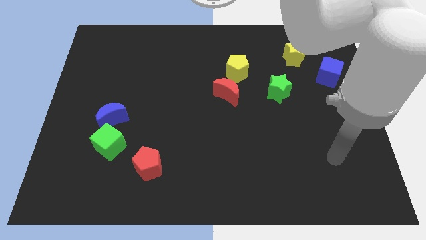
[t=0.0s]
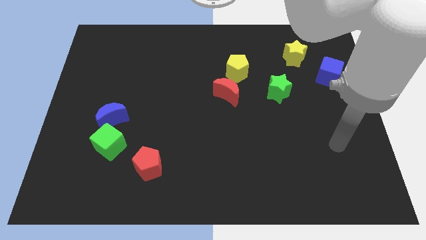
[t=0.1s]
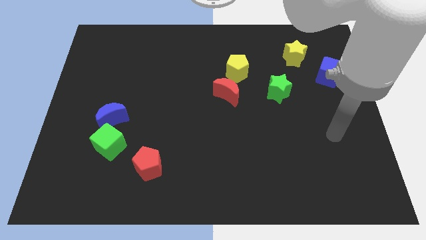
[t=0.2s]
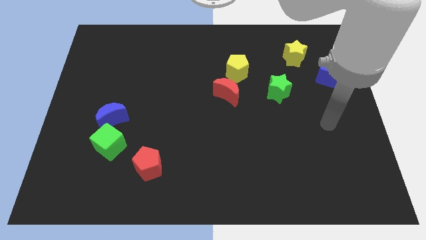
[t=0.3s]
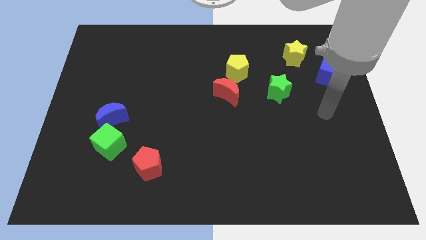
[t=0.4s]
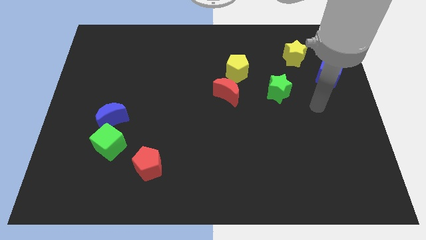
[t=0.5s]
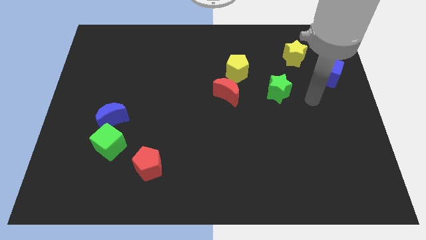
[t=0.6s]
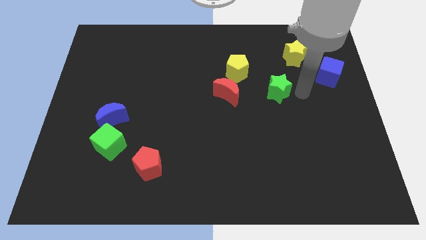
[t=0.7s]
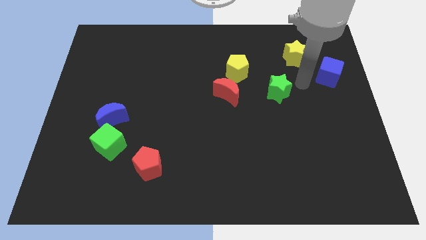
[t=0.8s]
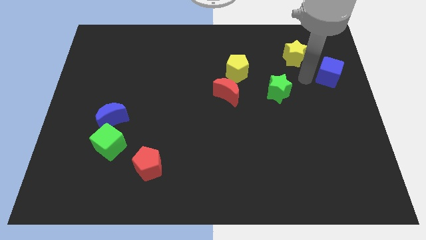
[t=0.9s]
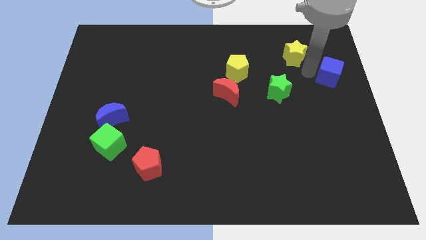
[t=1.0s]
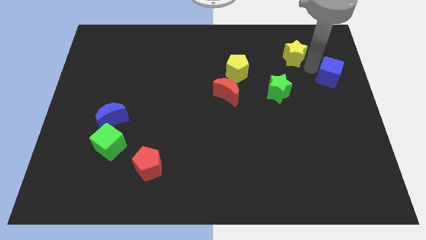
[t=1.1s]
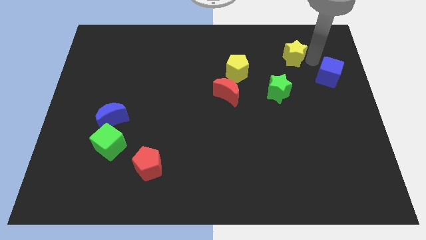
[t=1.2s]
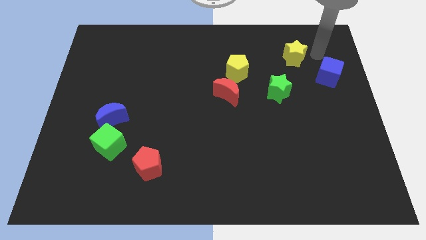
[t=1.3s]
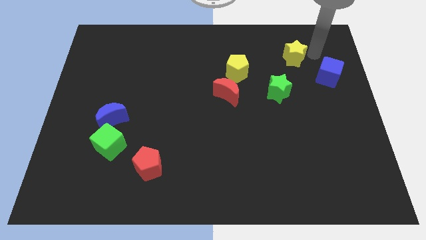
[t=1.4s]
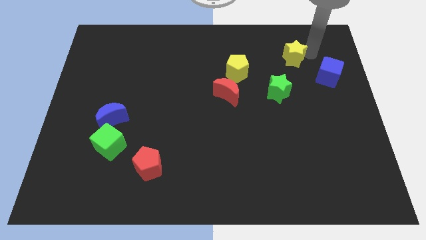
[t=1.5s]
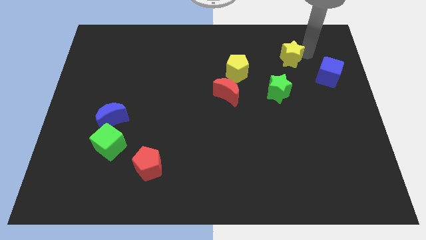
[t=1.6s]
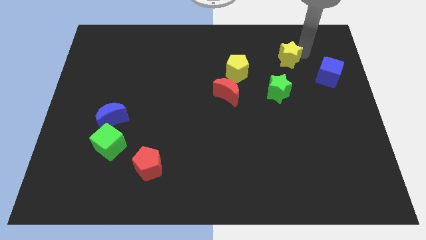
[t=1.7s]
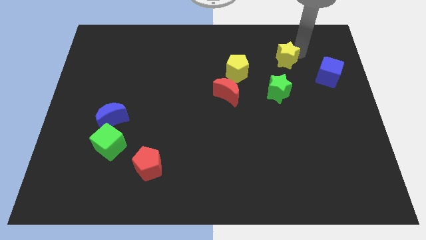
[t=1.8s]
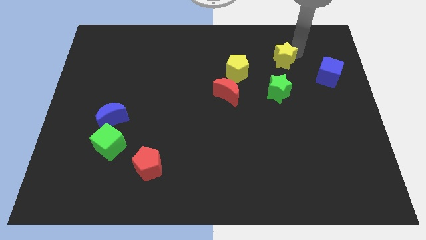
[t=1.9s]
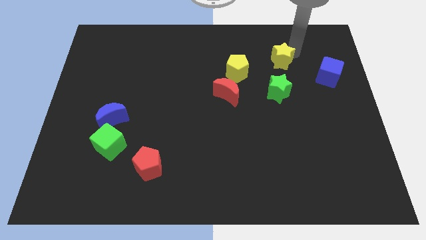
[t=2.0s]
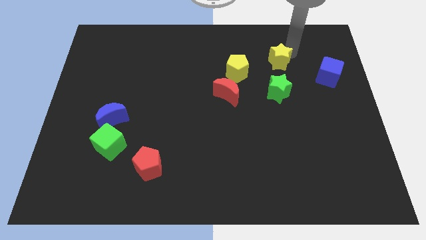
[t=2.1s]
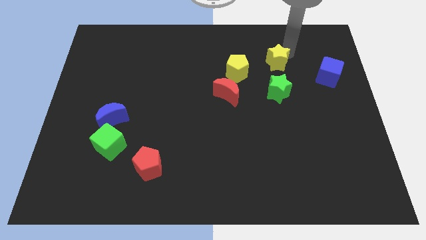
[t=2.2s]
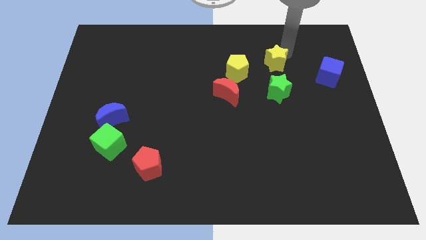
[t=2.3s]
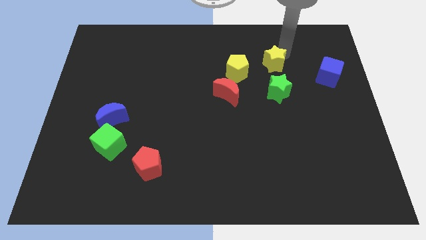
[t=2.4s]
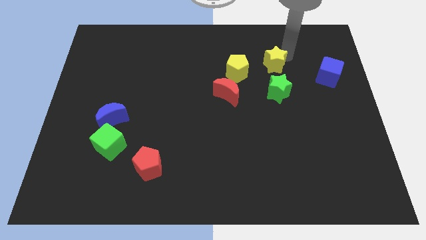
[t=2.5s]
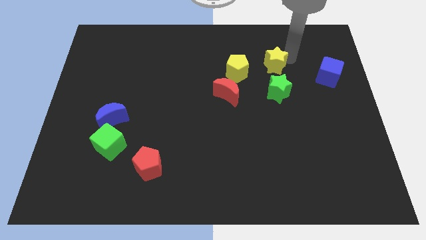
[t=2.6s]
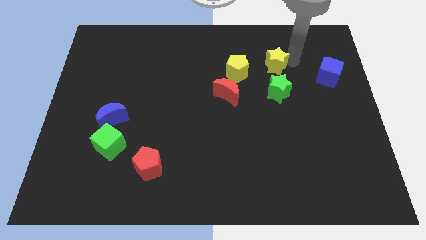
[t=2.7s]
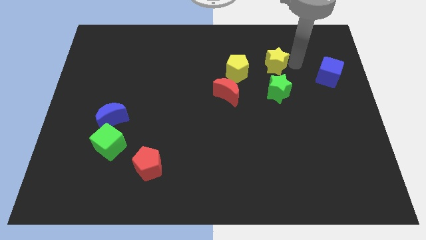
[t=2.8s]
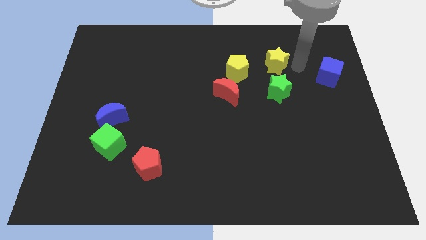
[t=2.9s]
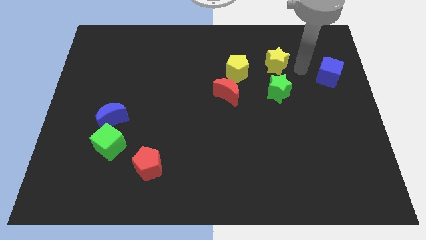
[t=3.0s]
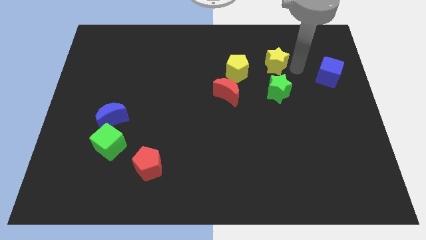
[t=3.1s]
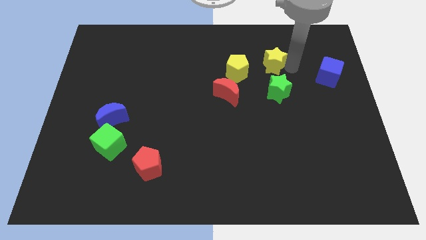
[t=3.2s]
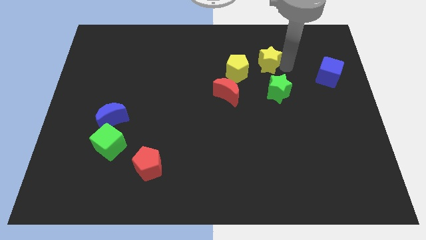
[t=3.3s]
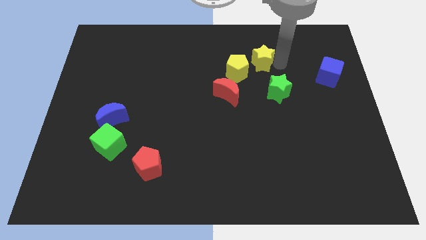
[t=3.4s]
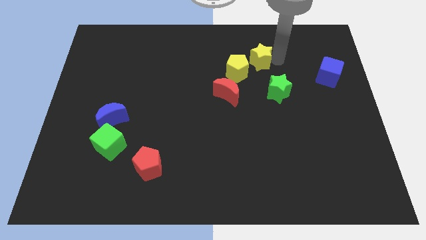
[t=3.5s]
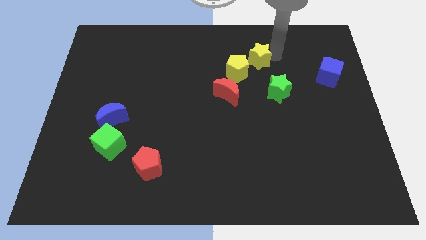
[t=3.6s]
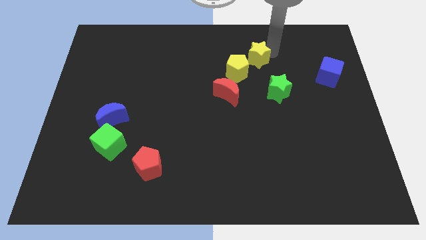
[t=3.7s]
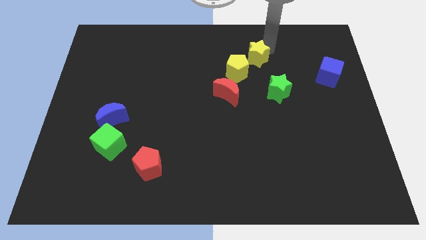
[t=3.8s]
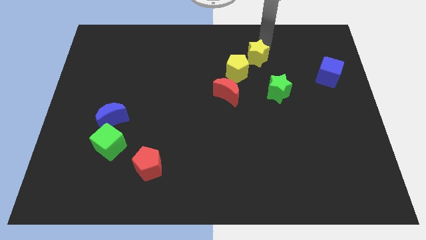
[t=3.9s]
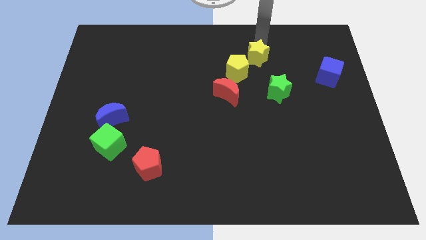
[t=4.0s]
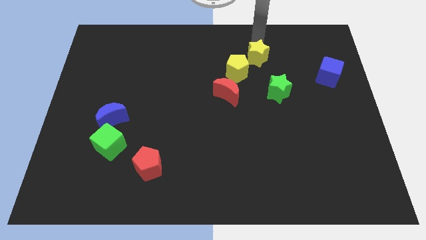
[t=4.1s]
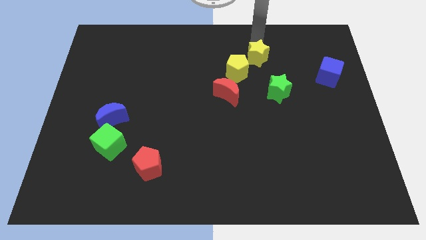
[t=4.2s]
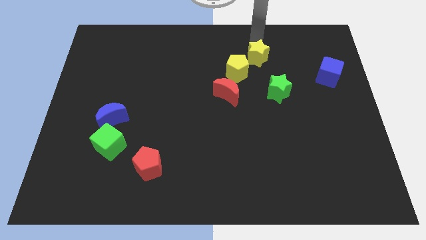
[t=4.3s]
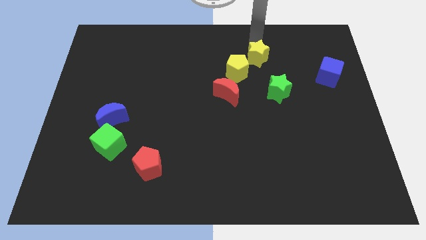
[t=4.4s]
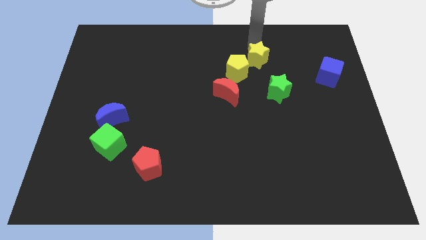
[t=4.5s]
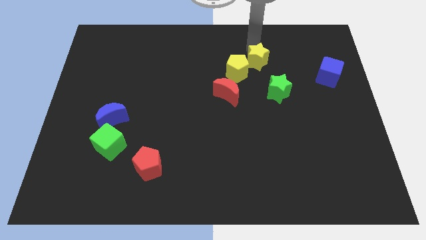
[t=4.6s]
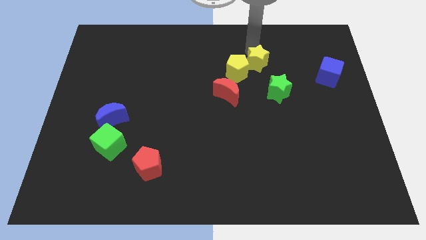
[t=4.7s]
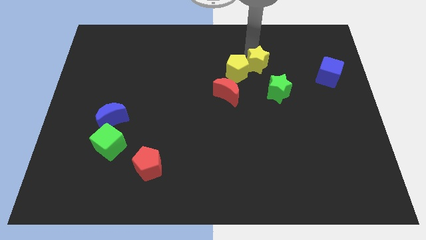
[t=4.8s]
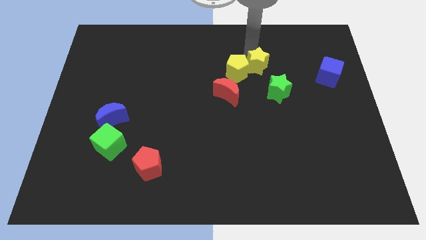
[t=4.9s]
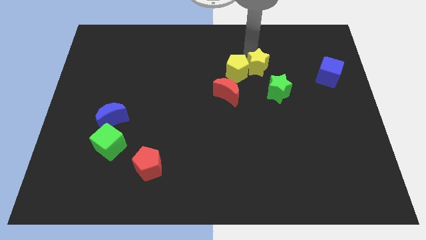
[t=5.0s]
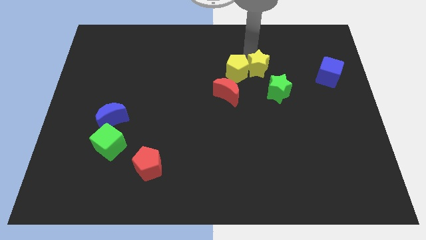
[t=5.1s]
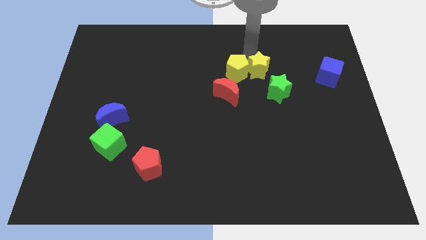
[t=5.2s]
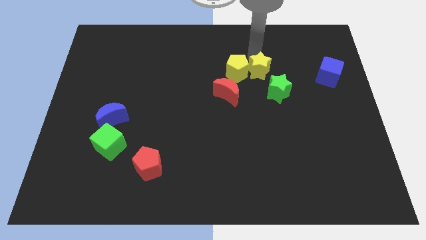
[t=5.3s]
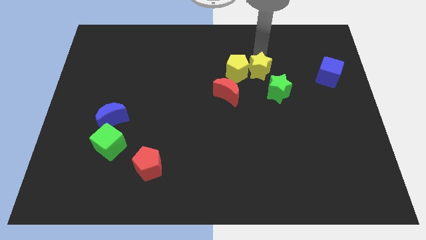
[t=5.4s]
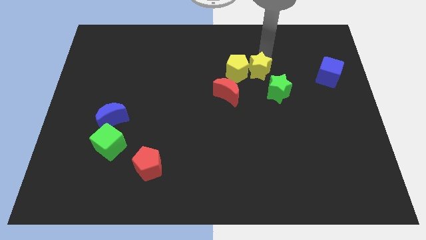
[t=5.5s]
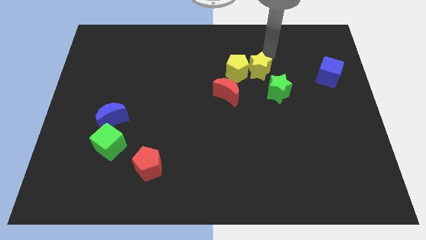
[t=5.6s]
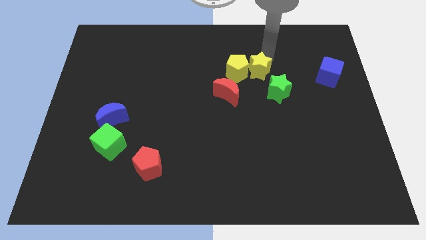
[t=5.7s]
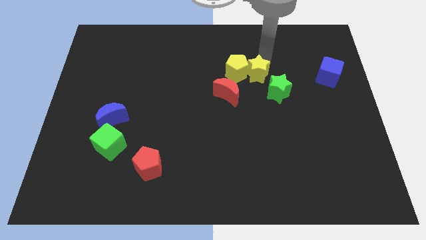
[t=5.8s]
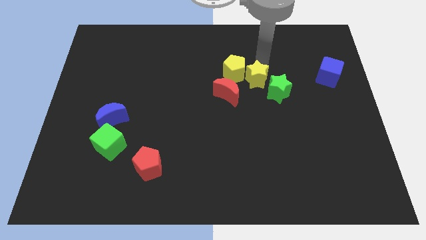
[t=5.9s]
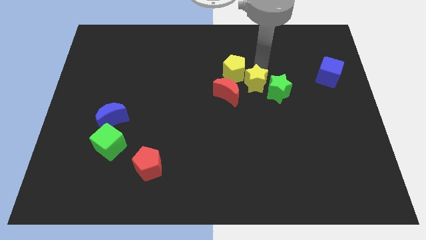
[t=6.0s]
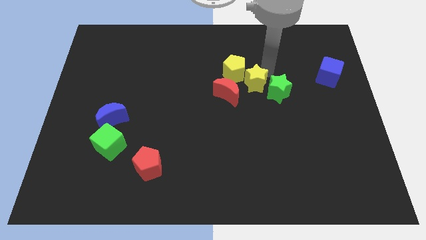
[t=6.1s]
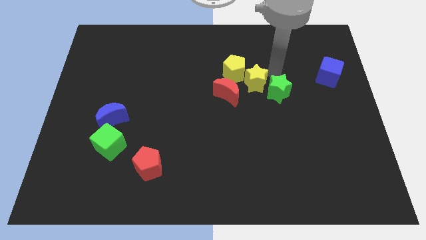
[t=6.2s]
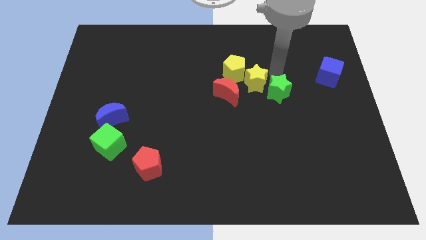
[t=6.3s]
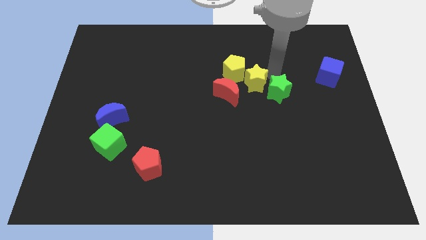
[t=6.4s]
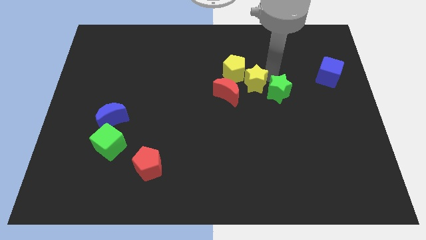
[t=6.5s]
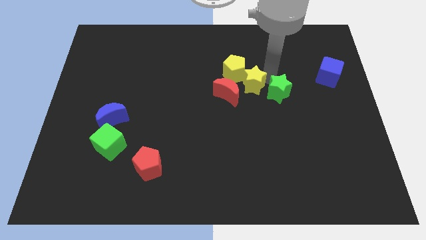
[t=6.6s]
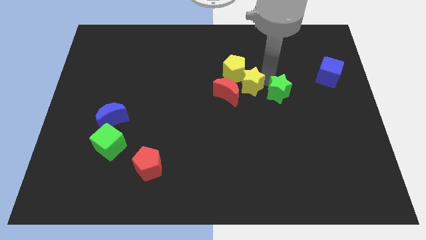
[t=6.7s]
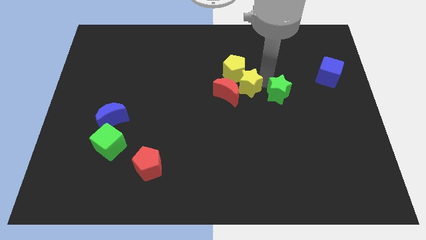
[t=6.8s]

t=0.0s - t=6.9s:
move the yellow star to the red moon

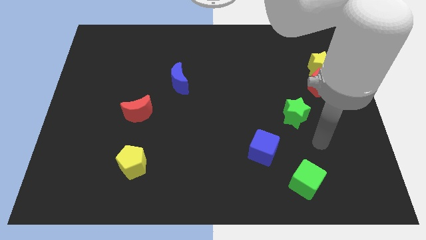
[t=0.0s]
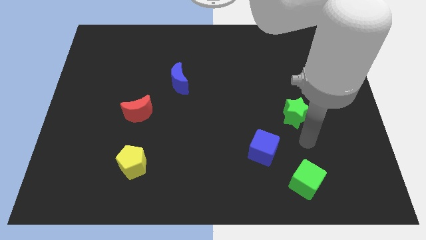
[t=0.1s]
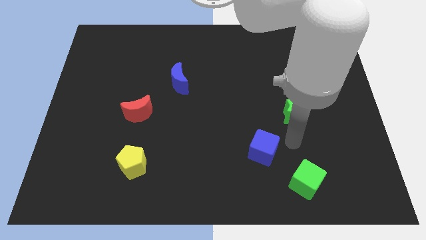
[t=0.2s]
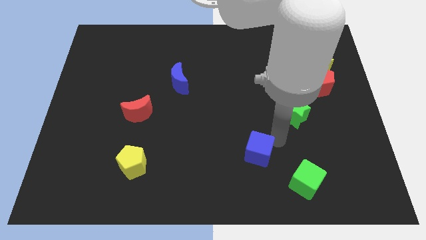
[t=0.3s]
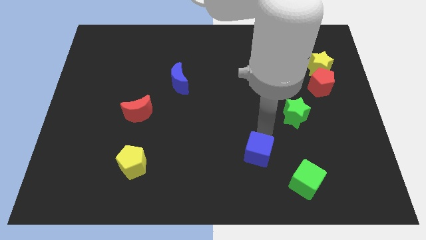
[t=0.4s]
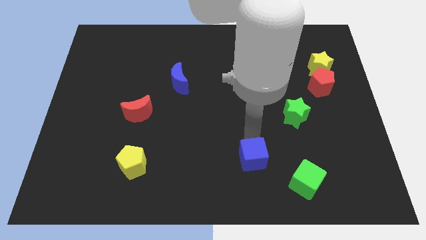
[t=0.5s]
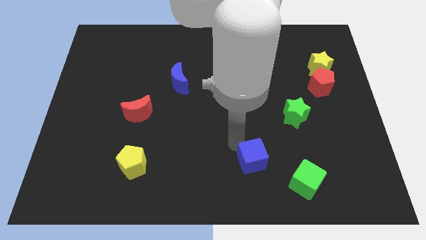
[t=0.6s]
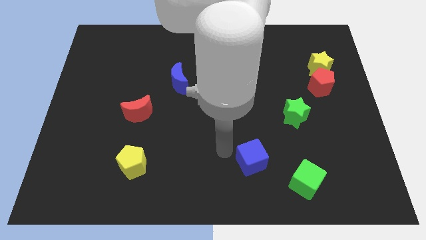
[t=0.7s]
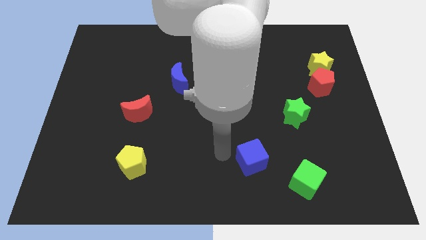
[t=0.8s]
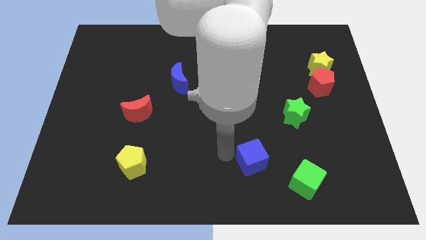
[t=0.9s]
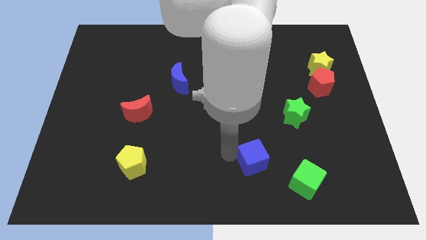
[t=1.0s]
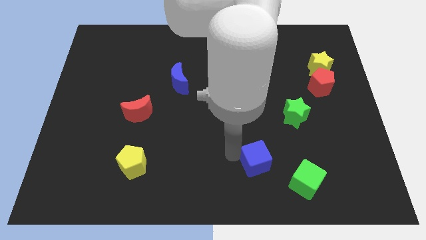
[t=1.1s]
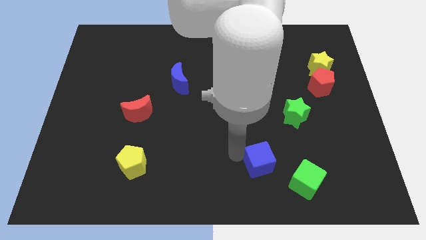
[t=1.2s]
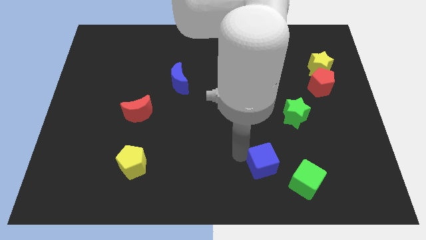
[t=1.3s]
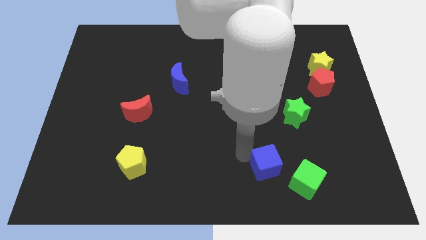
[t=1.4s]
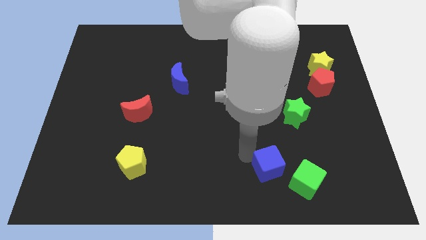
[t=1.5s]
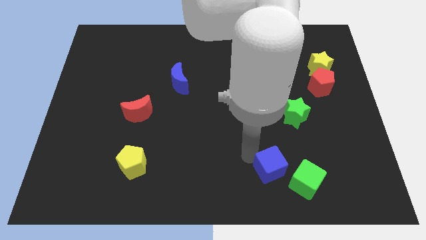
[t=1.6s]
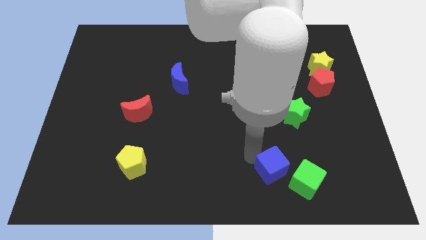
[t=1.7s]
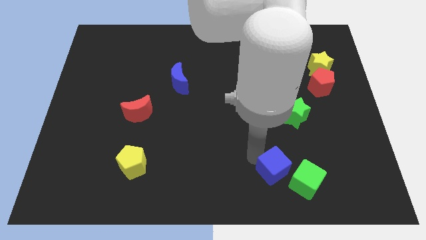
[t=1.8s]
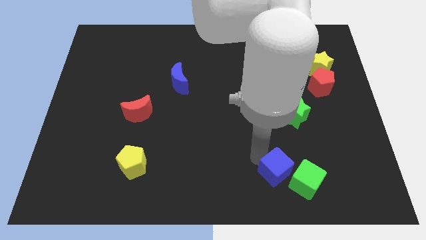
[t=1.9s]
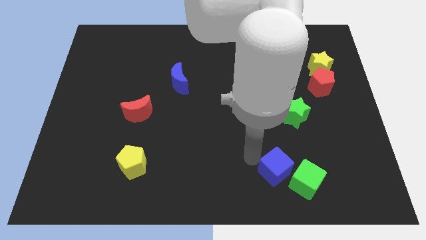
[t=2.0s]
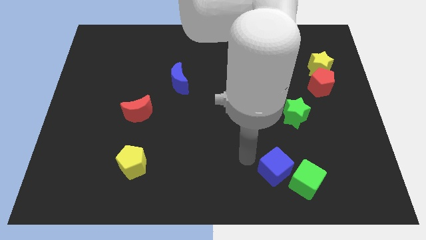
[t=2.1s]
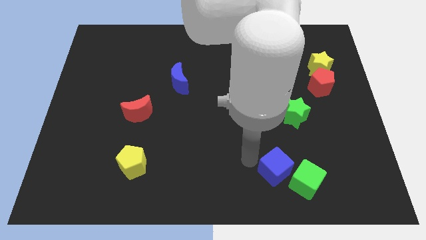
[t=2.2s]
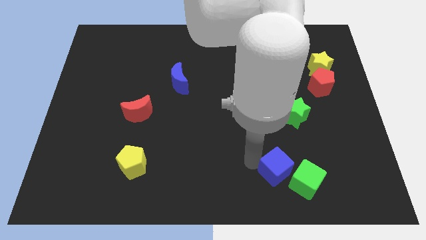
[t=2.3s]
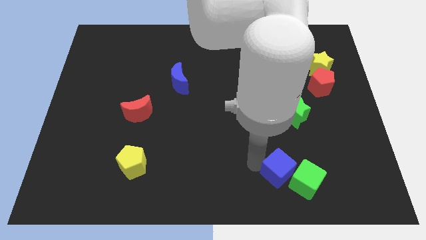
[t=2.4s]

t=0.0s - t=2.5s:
push the blue cube to the green cube
